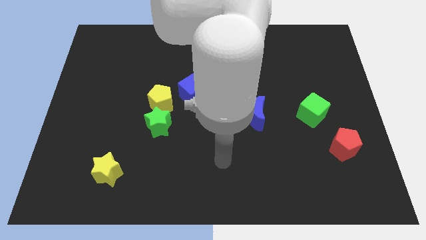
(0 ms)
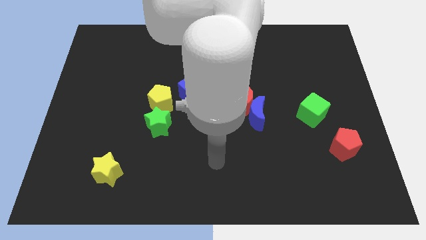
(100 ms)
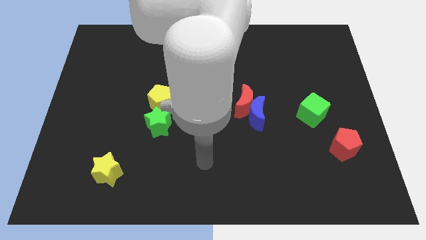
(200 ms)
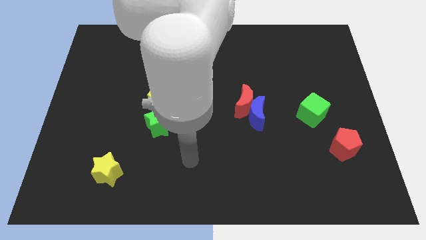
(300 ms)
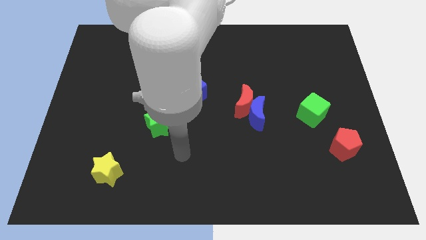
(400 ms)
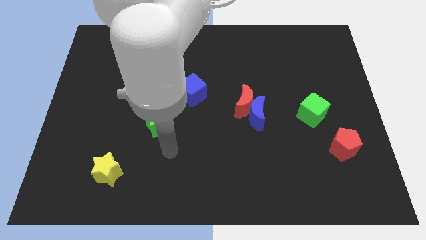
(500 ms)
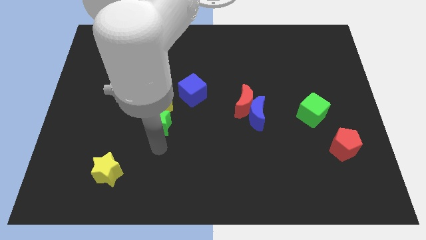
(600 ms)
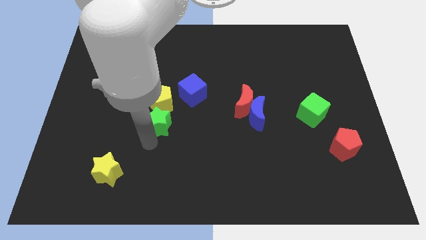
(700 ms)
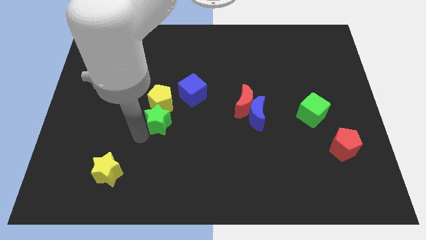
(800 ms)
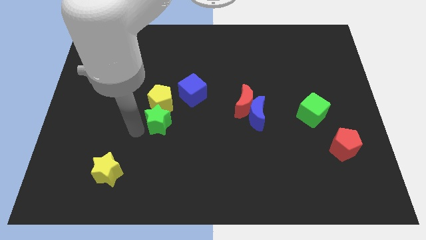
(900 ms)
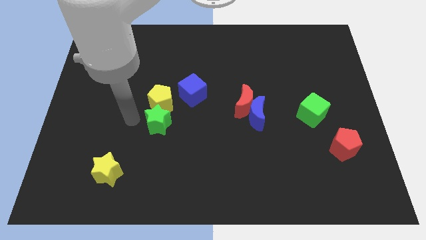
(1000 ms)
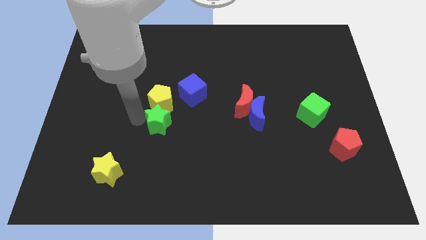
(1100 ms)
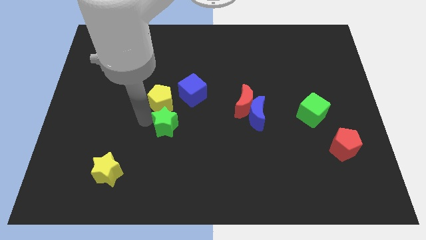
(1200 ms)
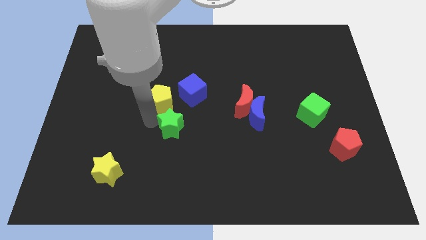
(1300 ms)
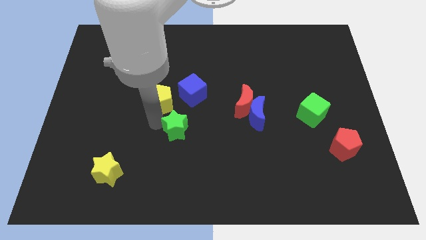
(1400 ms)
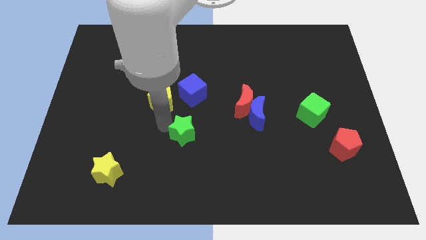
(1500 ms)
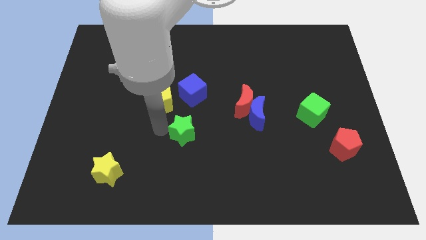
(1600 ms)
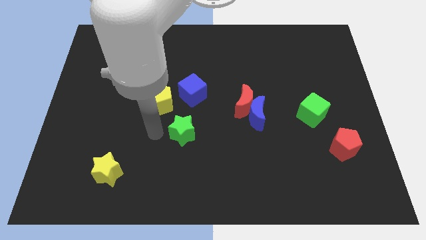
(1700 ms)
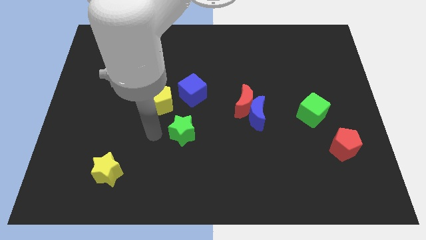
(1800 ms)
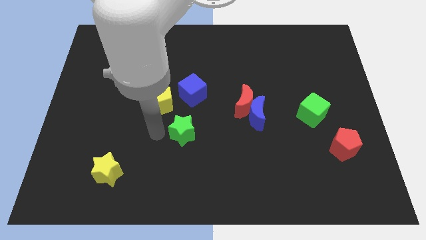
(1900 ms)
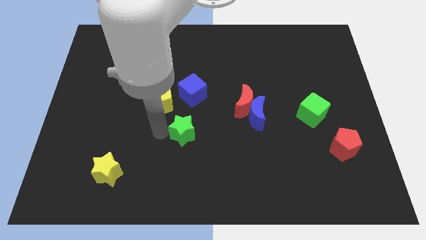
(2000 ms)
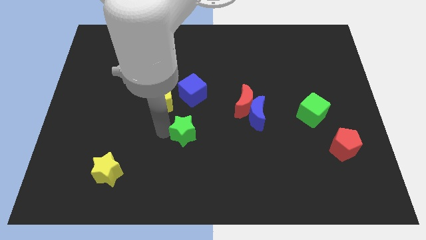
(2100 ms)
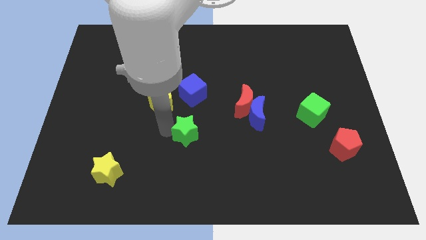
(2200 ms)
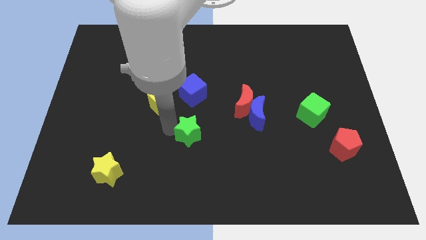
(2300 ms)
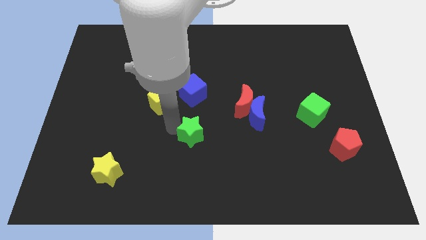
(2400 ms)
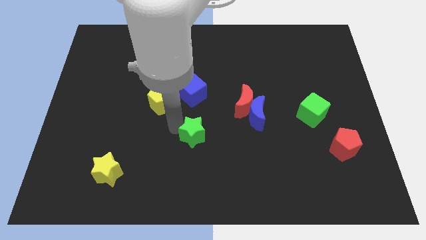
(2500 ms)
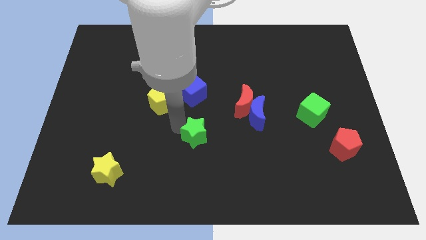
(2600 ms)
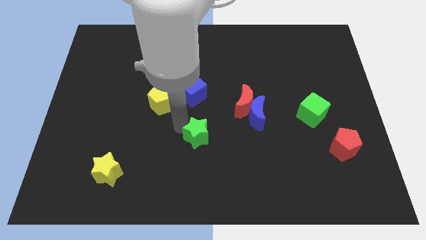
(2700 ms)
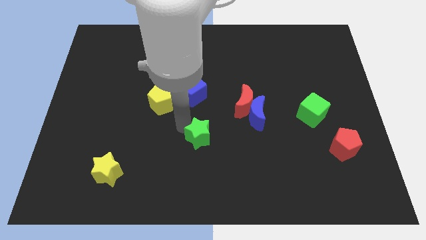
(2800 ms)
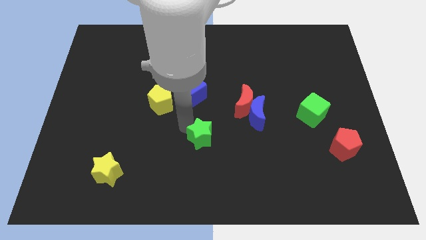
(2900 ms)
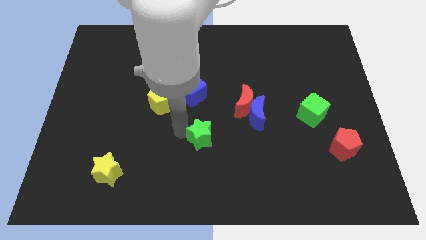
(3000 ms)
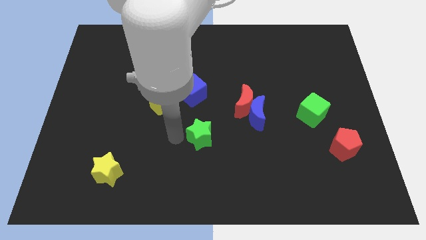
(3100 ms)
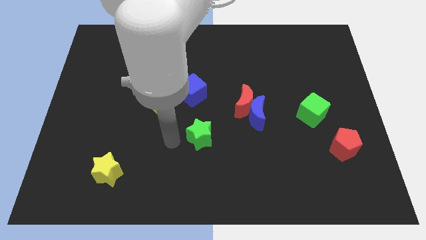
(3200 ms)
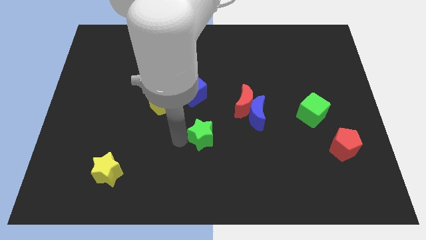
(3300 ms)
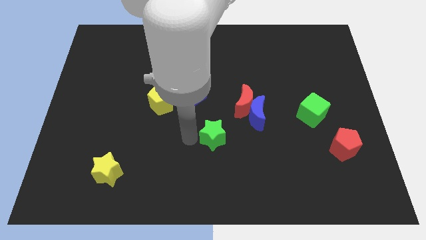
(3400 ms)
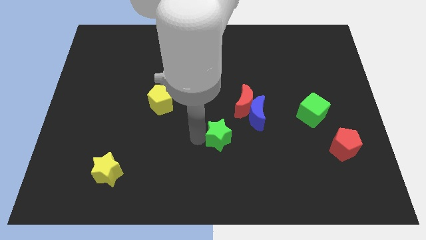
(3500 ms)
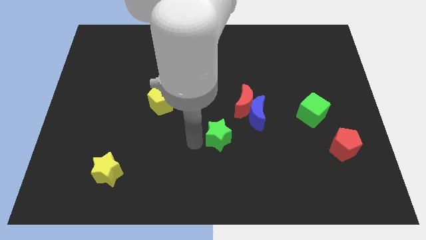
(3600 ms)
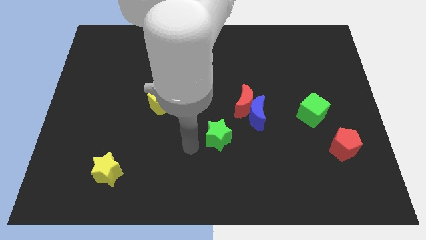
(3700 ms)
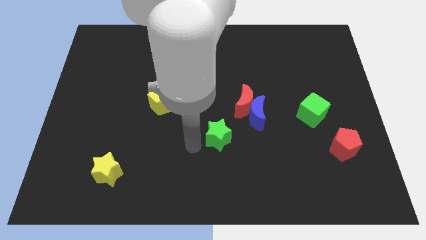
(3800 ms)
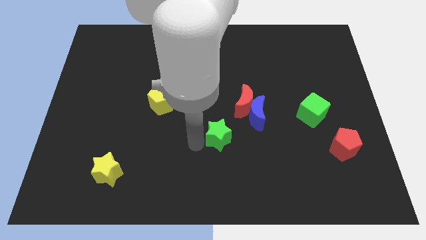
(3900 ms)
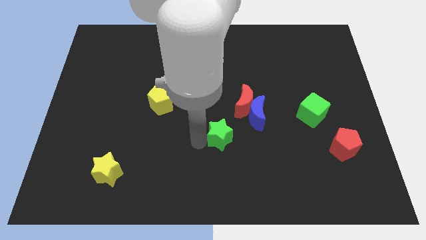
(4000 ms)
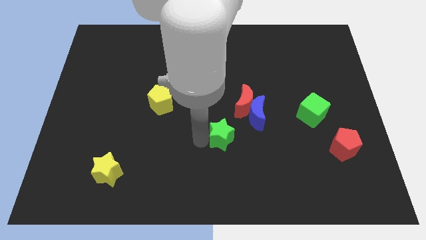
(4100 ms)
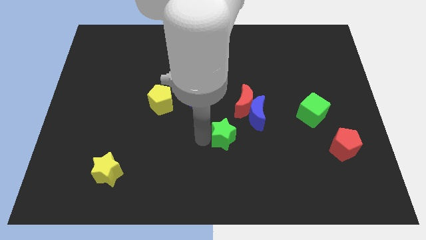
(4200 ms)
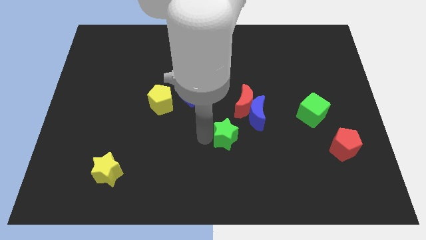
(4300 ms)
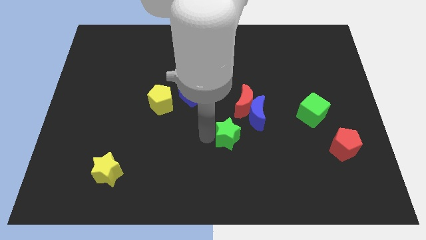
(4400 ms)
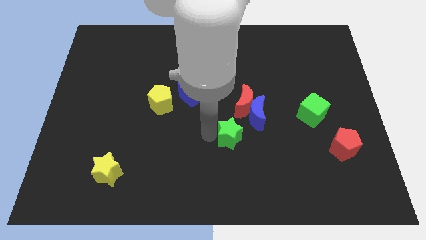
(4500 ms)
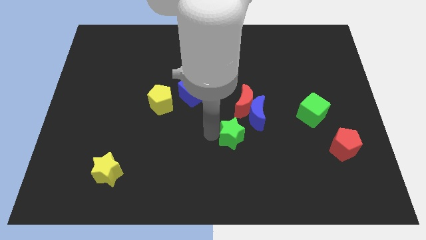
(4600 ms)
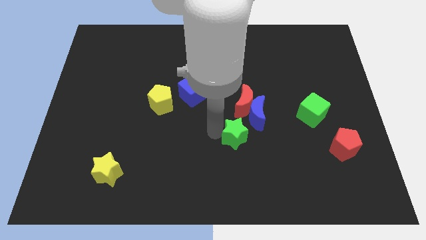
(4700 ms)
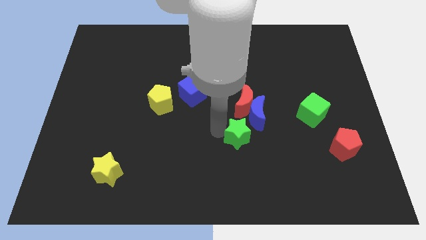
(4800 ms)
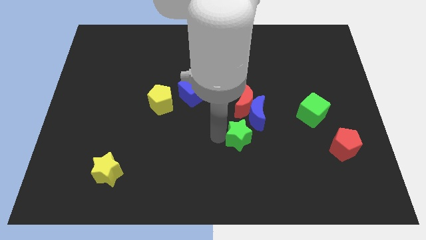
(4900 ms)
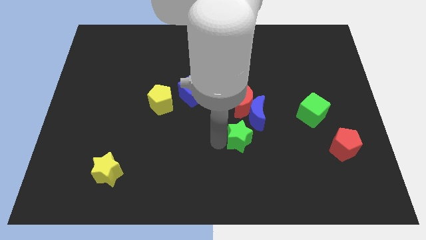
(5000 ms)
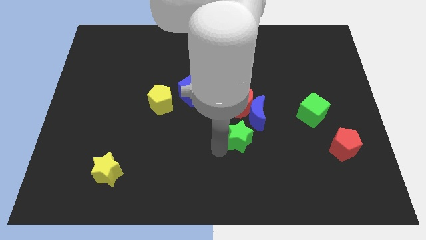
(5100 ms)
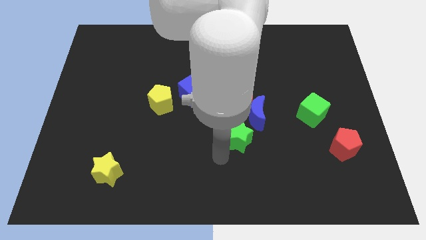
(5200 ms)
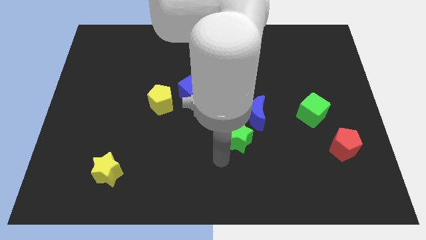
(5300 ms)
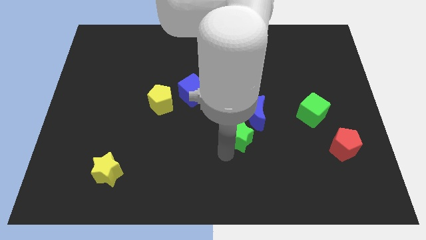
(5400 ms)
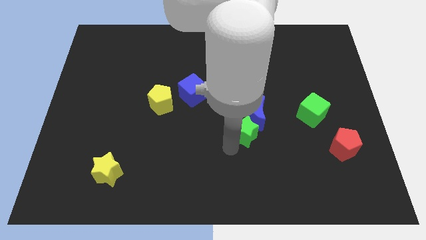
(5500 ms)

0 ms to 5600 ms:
push the green star close to the blue moon

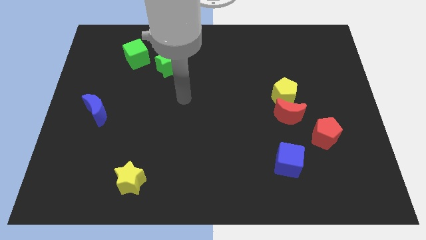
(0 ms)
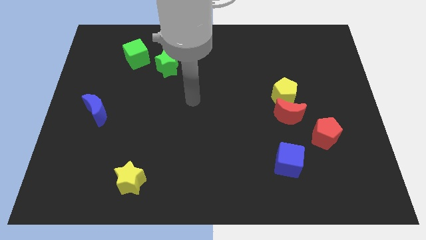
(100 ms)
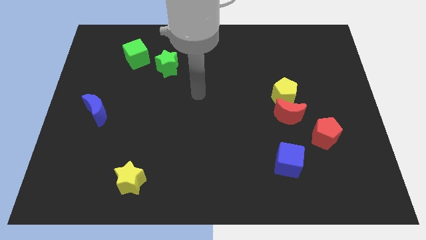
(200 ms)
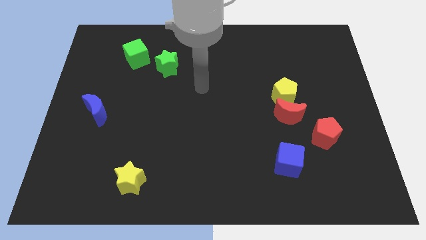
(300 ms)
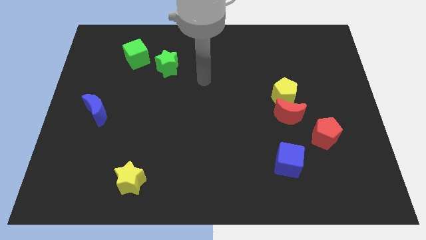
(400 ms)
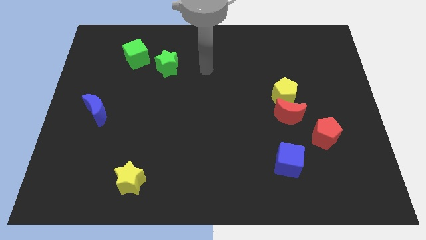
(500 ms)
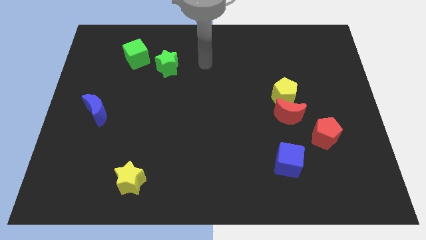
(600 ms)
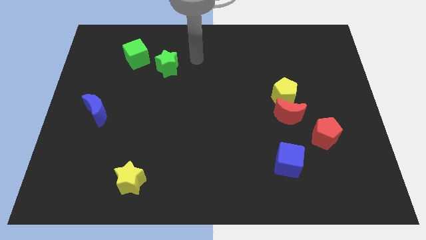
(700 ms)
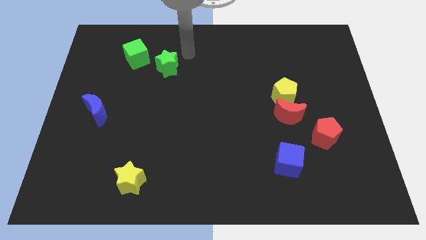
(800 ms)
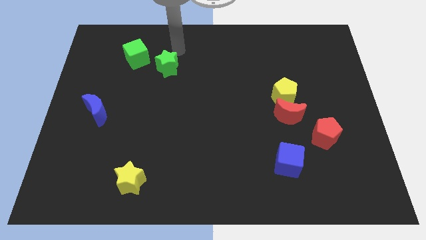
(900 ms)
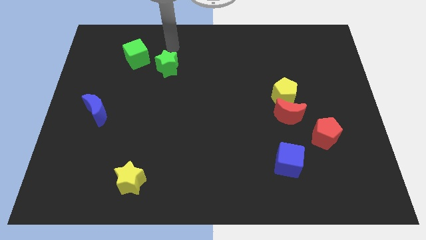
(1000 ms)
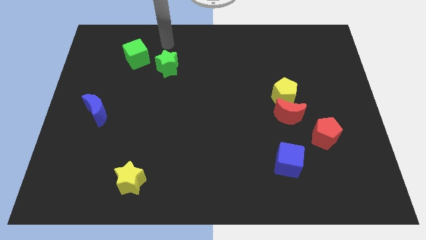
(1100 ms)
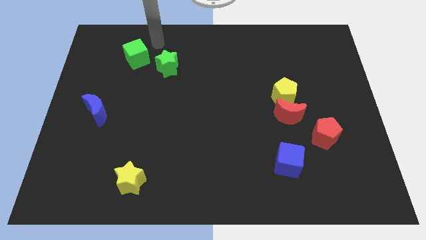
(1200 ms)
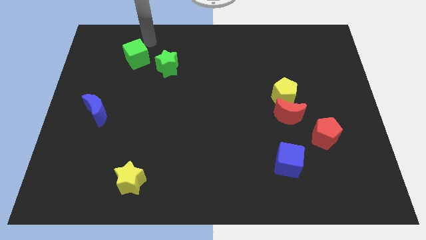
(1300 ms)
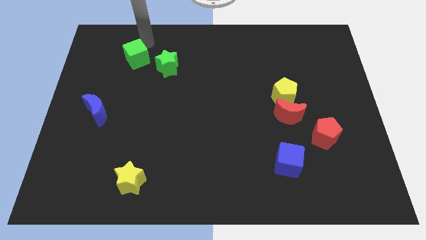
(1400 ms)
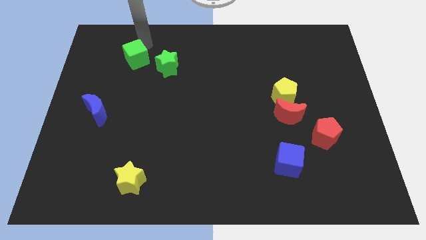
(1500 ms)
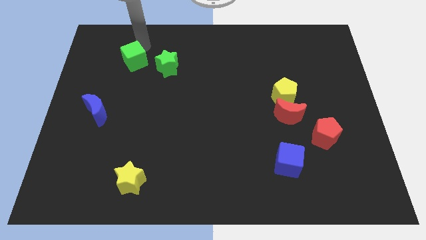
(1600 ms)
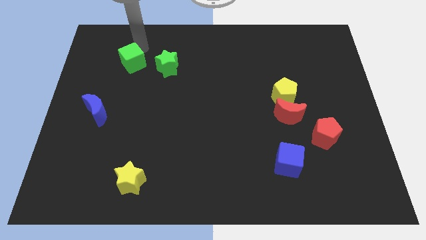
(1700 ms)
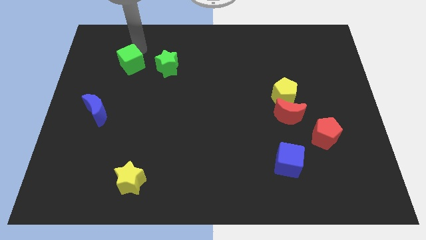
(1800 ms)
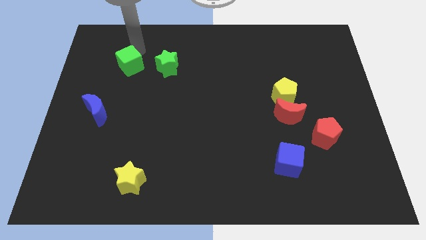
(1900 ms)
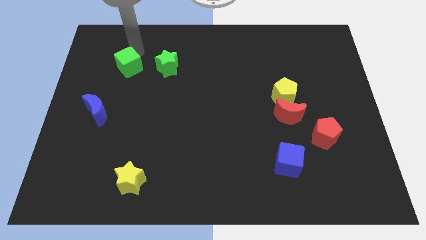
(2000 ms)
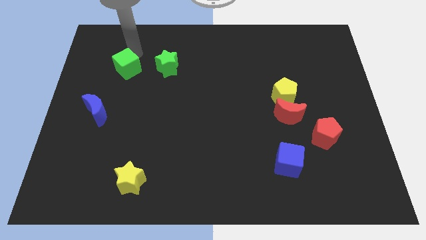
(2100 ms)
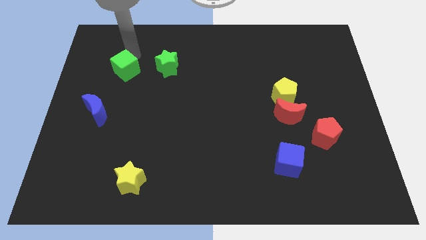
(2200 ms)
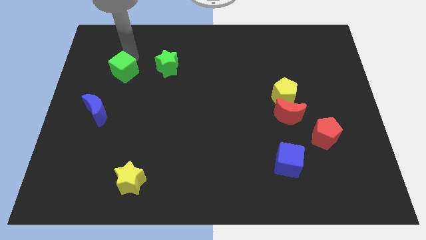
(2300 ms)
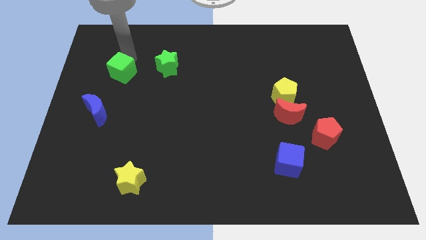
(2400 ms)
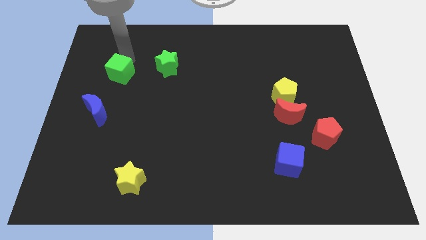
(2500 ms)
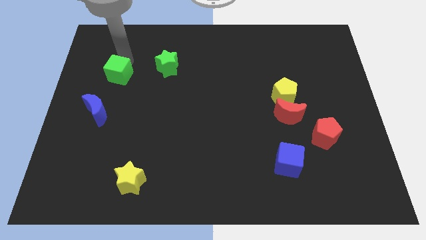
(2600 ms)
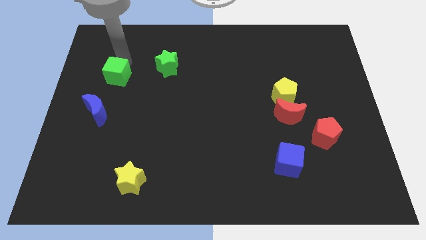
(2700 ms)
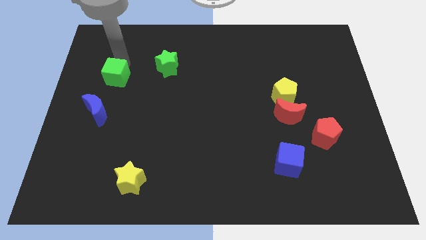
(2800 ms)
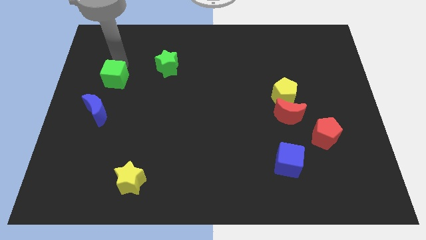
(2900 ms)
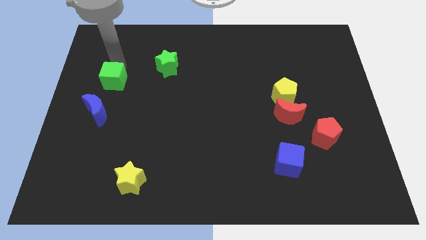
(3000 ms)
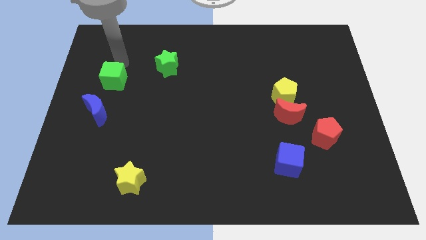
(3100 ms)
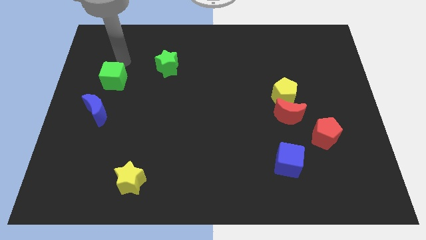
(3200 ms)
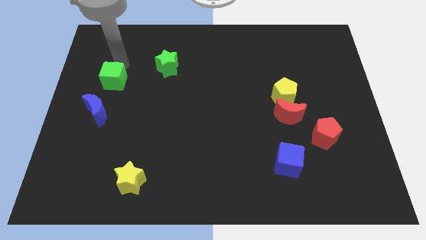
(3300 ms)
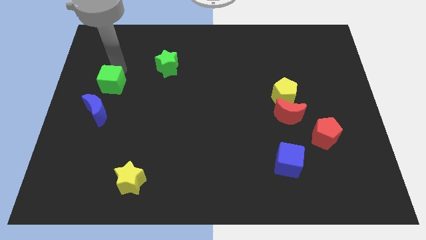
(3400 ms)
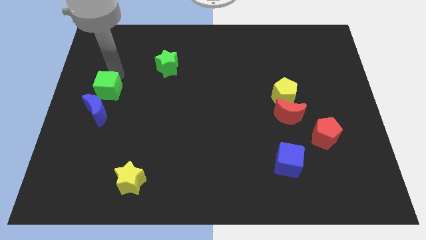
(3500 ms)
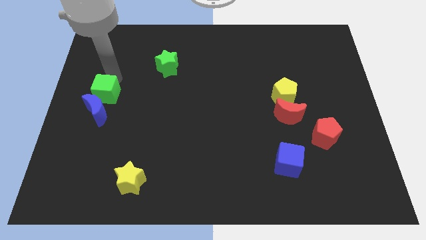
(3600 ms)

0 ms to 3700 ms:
slide the green cube next to the blue moon
